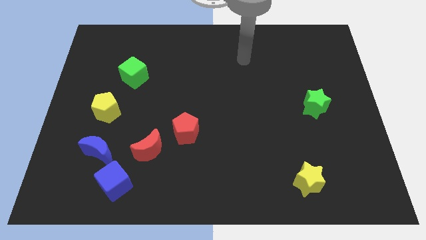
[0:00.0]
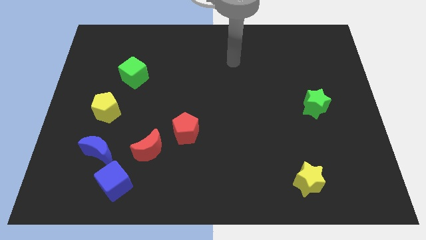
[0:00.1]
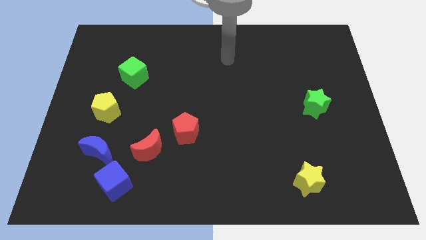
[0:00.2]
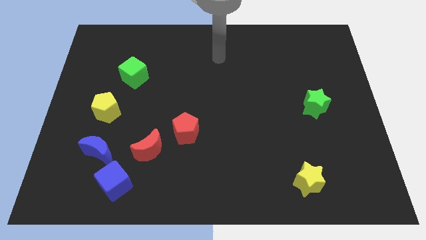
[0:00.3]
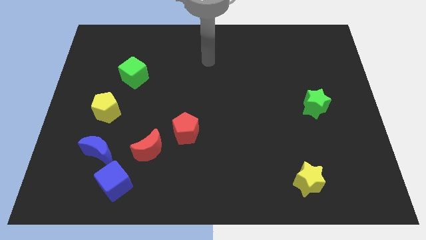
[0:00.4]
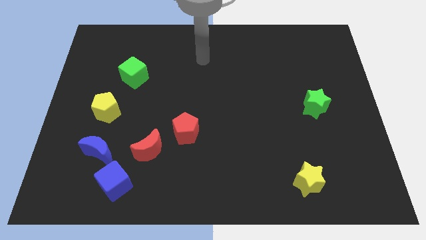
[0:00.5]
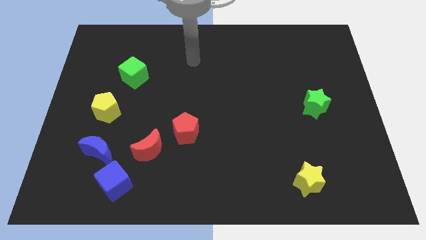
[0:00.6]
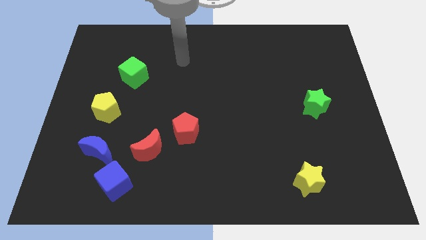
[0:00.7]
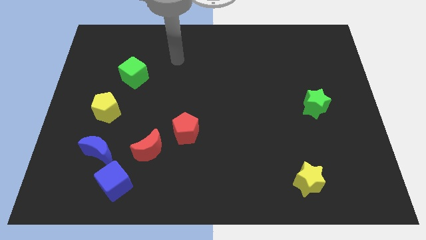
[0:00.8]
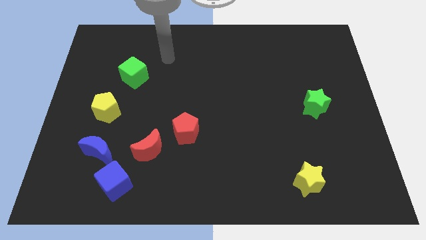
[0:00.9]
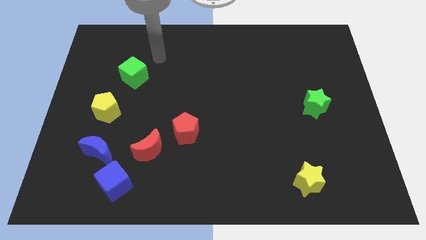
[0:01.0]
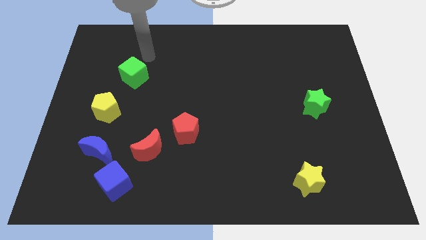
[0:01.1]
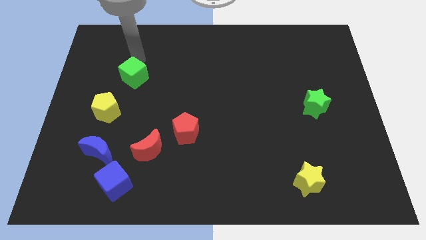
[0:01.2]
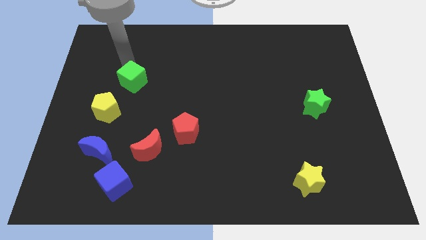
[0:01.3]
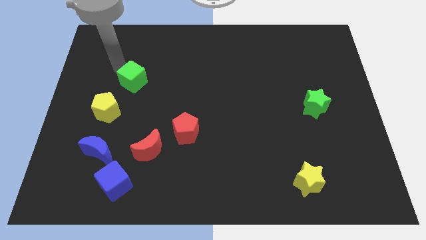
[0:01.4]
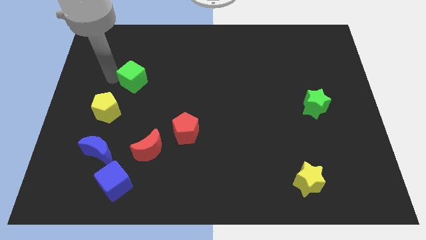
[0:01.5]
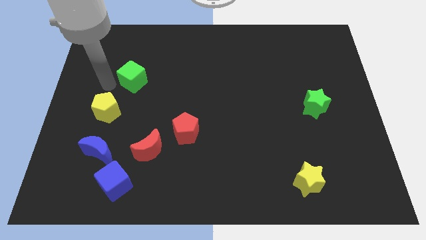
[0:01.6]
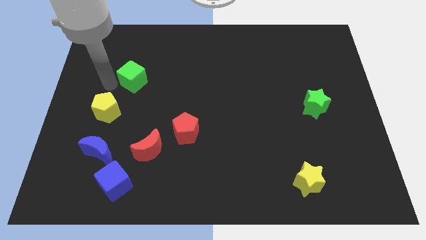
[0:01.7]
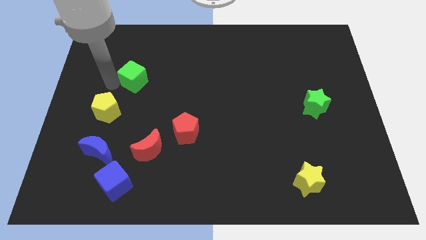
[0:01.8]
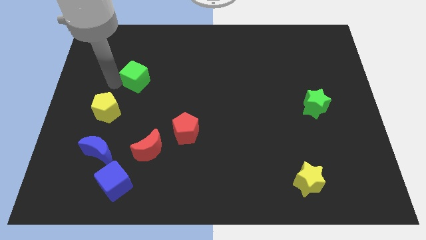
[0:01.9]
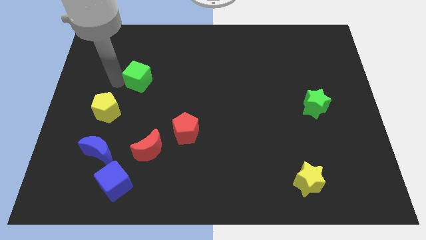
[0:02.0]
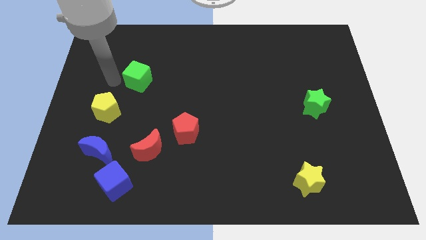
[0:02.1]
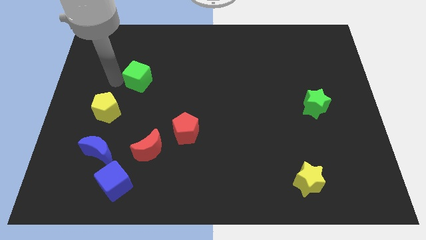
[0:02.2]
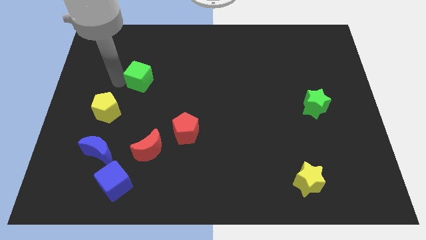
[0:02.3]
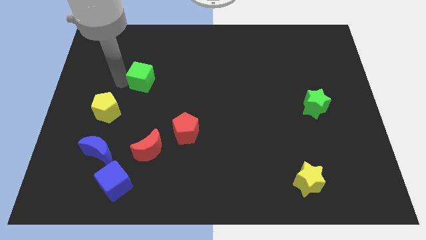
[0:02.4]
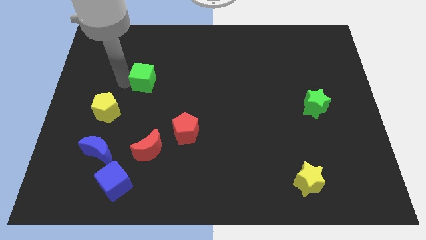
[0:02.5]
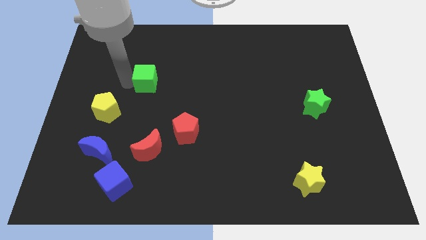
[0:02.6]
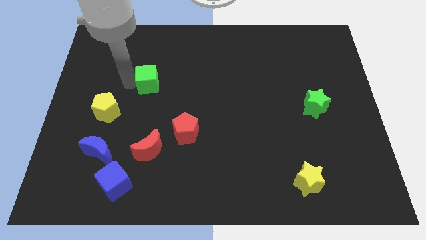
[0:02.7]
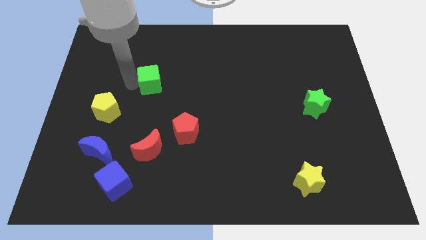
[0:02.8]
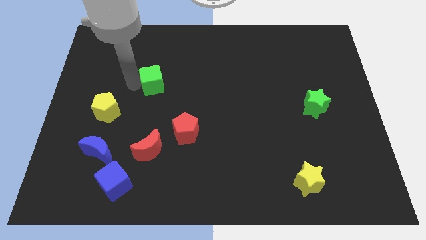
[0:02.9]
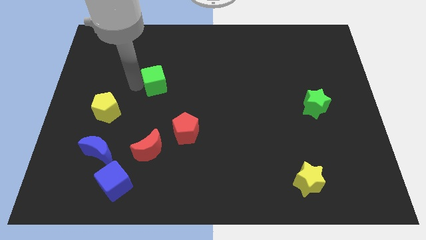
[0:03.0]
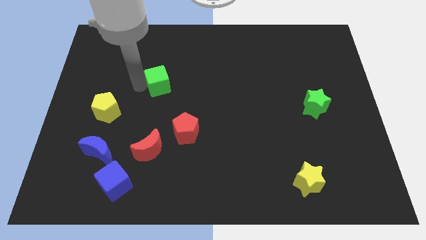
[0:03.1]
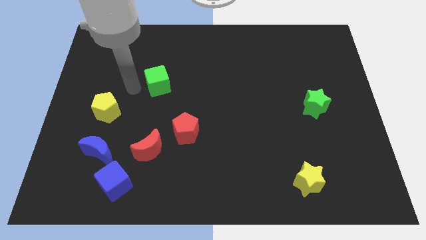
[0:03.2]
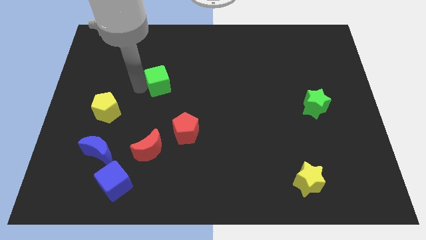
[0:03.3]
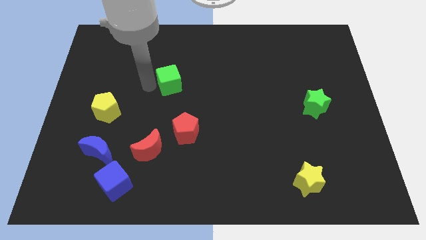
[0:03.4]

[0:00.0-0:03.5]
move the green cube to the right slightly

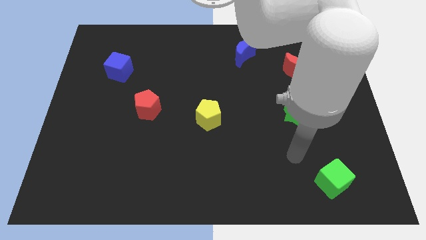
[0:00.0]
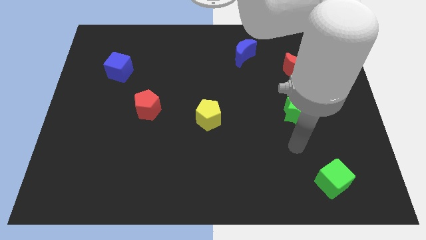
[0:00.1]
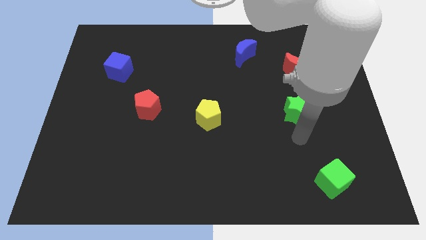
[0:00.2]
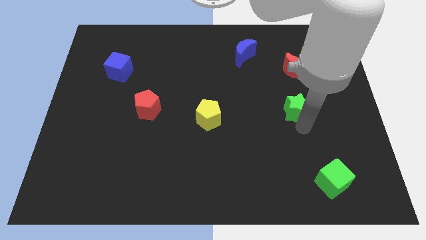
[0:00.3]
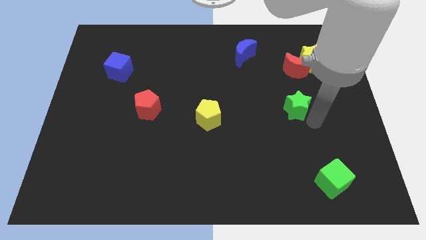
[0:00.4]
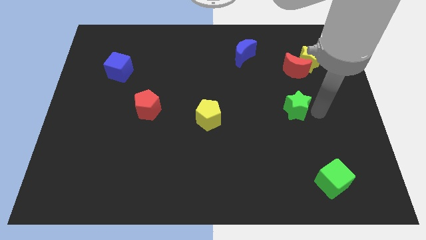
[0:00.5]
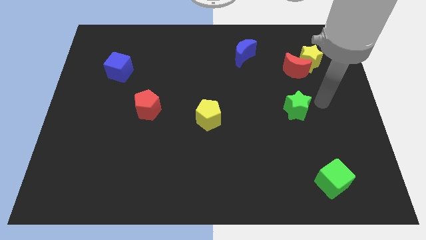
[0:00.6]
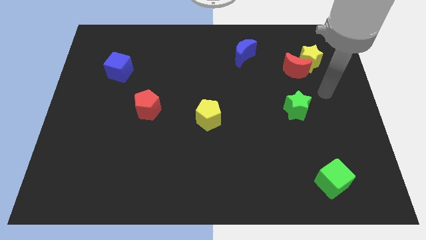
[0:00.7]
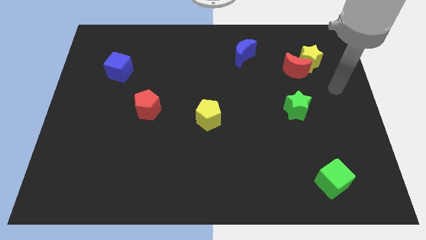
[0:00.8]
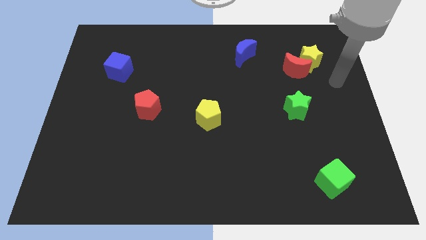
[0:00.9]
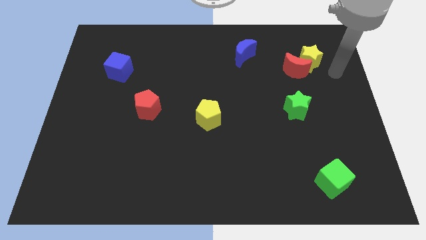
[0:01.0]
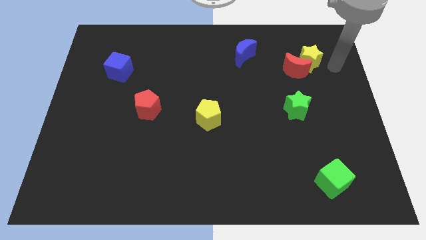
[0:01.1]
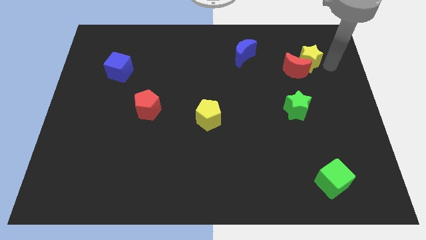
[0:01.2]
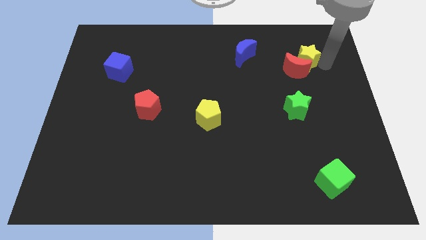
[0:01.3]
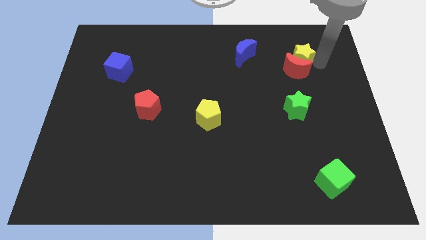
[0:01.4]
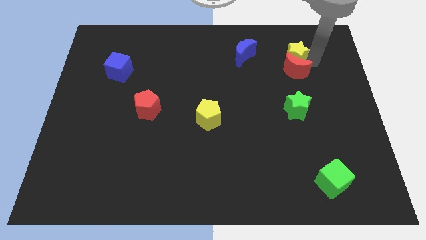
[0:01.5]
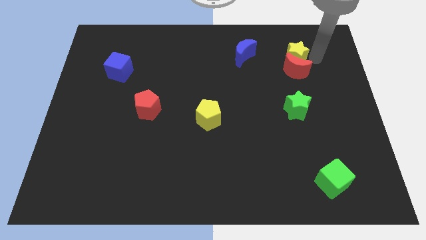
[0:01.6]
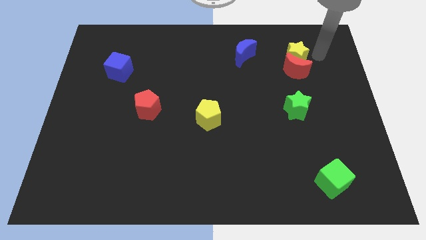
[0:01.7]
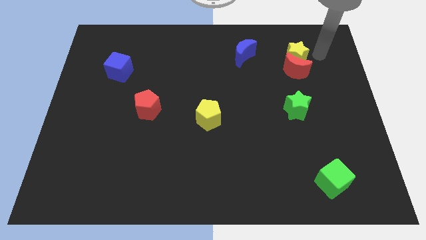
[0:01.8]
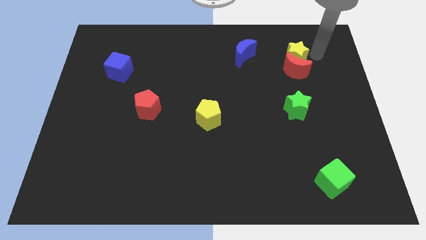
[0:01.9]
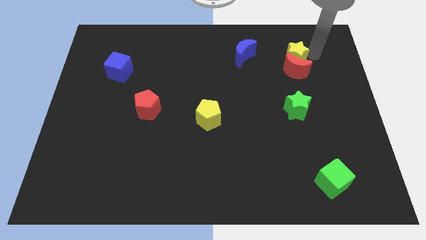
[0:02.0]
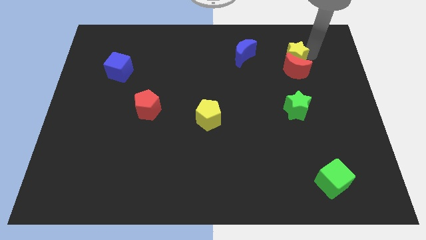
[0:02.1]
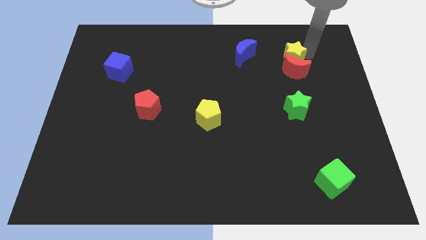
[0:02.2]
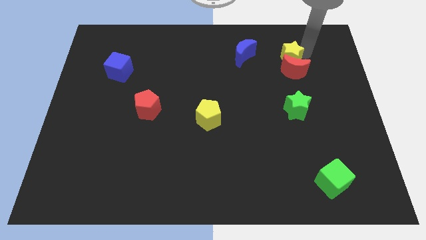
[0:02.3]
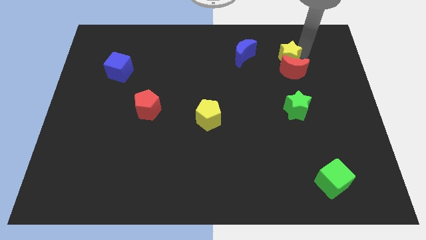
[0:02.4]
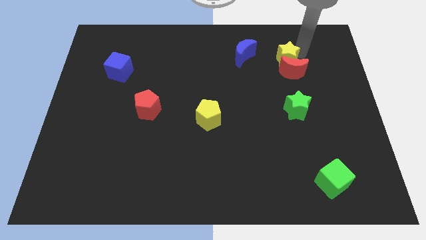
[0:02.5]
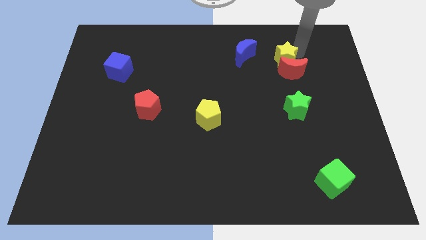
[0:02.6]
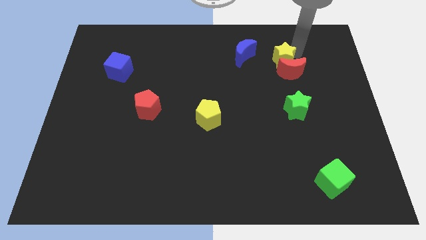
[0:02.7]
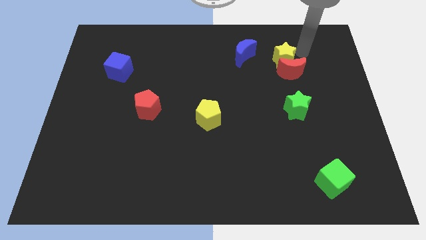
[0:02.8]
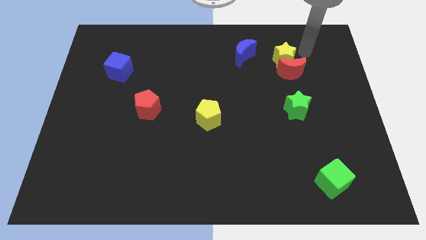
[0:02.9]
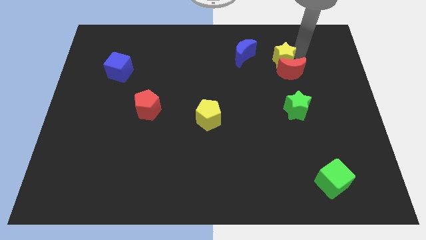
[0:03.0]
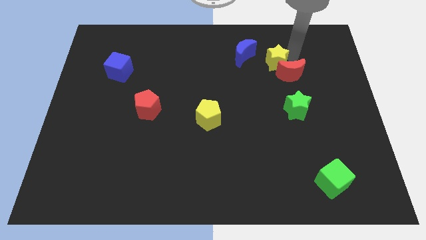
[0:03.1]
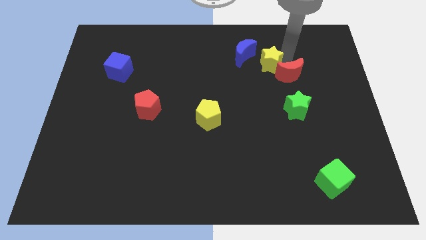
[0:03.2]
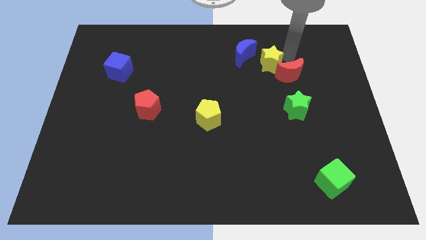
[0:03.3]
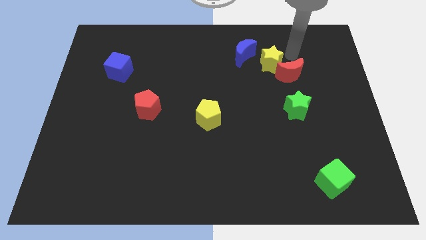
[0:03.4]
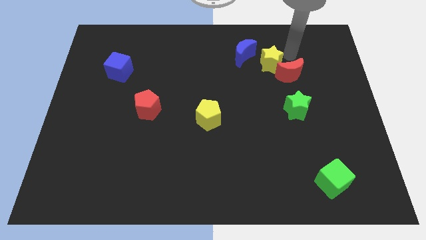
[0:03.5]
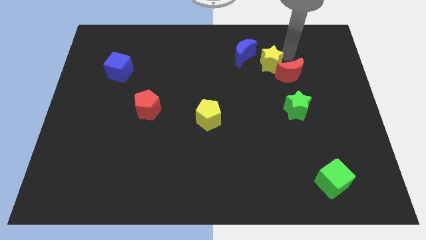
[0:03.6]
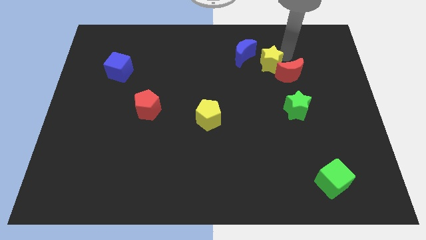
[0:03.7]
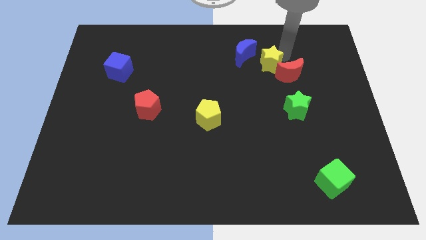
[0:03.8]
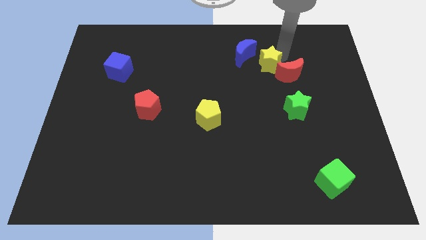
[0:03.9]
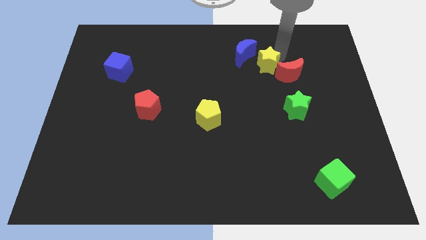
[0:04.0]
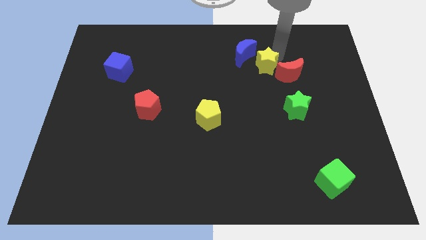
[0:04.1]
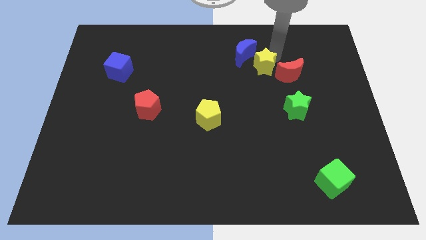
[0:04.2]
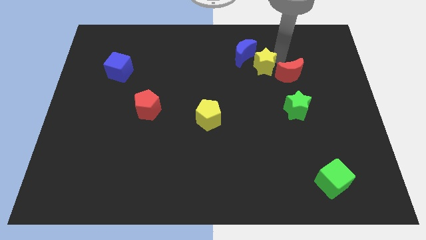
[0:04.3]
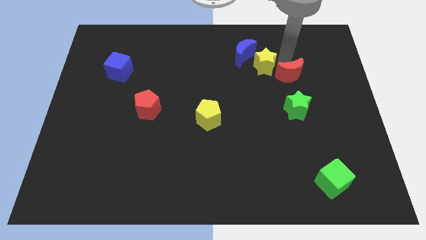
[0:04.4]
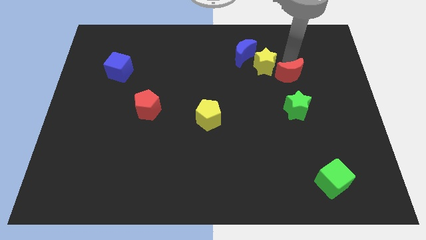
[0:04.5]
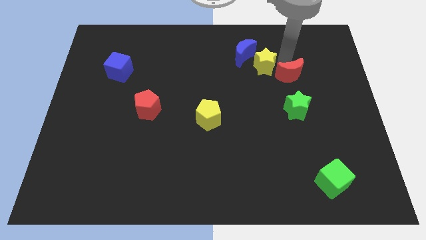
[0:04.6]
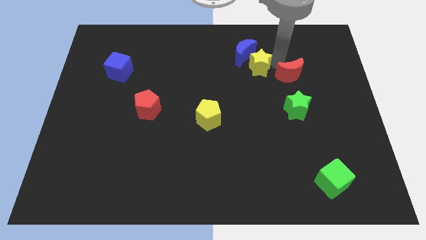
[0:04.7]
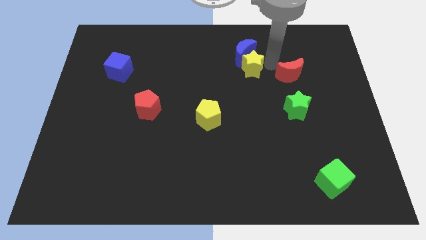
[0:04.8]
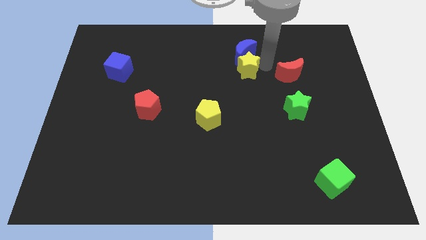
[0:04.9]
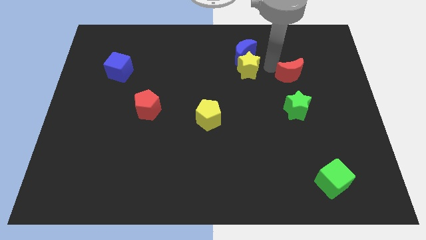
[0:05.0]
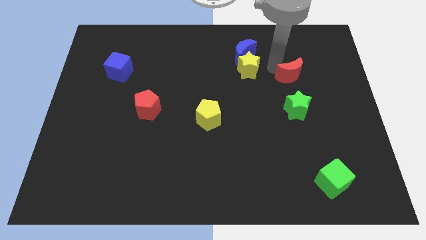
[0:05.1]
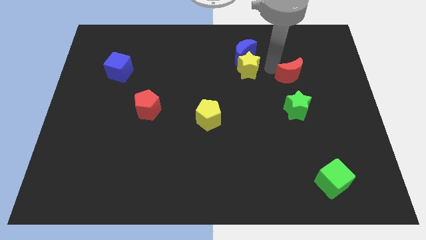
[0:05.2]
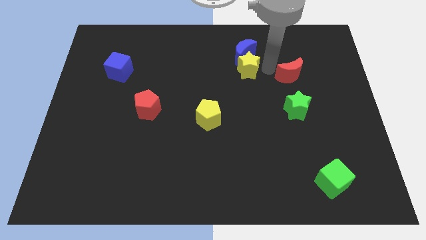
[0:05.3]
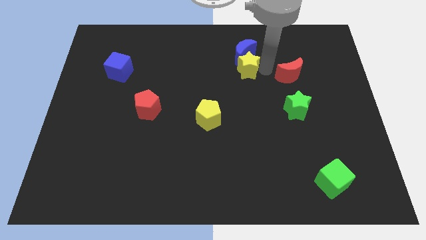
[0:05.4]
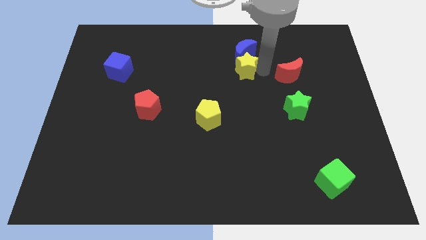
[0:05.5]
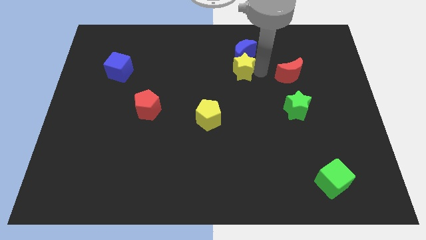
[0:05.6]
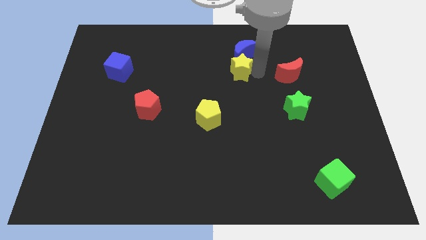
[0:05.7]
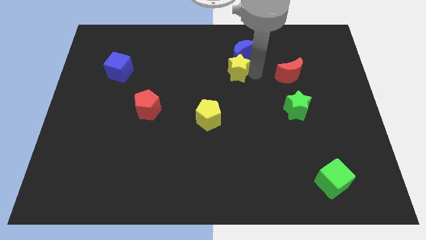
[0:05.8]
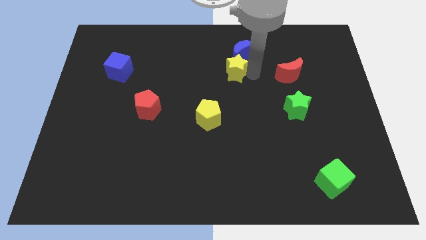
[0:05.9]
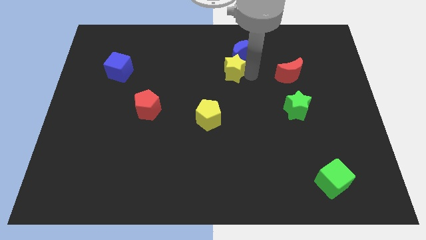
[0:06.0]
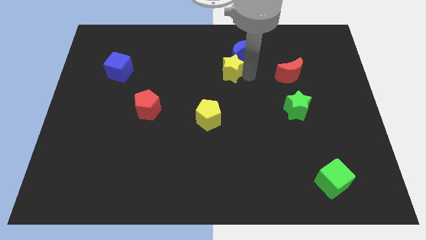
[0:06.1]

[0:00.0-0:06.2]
slide the yellow star left
